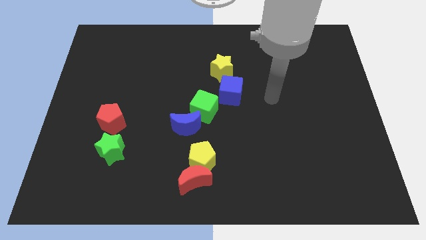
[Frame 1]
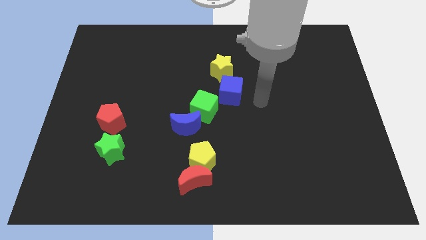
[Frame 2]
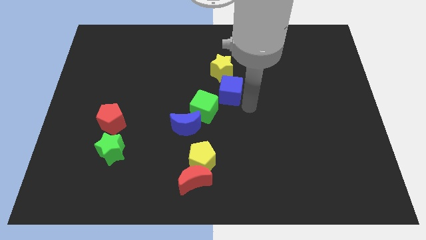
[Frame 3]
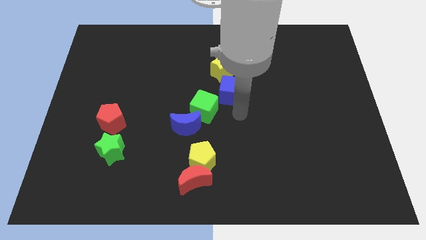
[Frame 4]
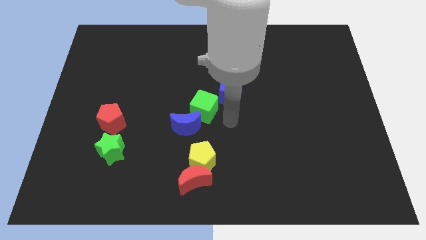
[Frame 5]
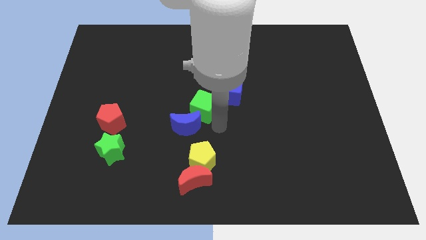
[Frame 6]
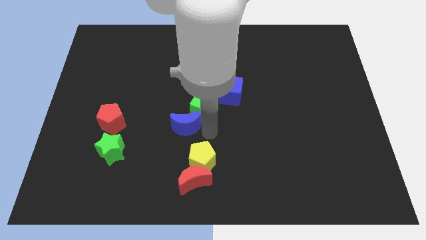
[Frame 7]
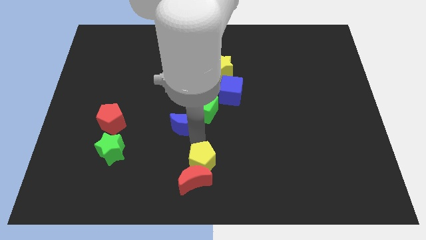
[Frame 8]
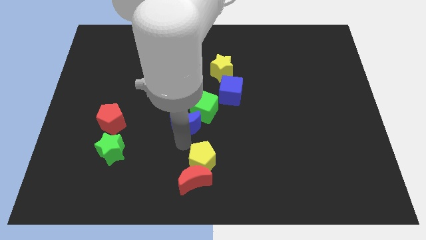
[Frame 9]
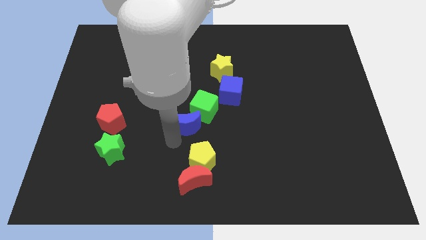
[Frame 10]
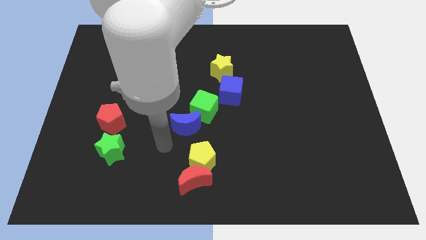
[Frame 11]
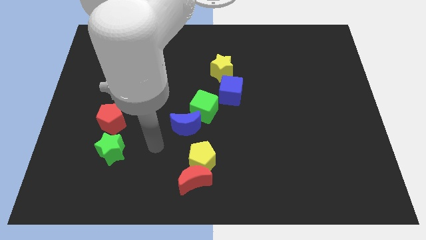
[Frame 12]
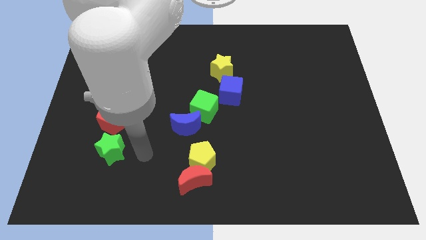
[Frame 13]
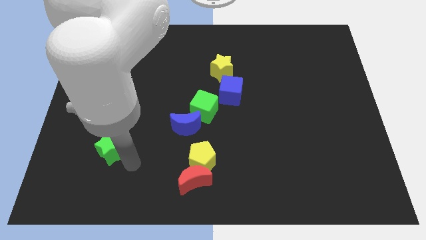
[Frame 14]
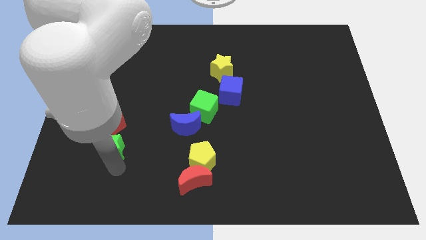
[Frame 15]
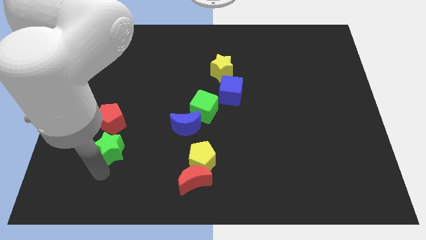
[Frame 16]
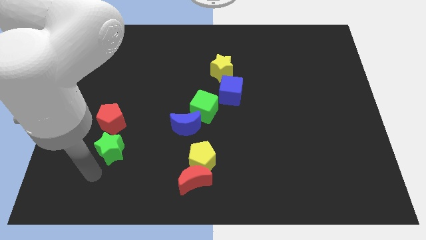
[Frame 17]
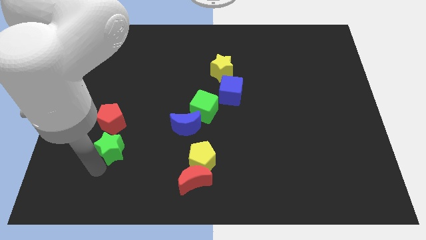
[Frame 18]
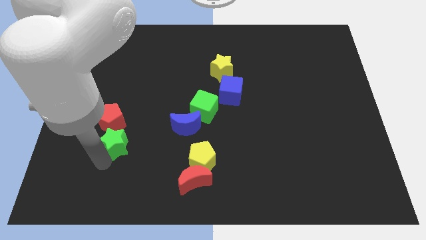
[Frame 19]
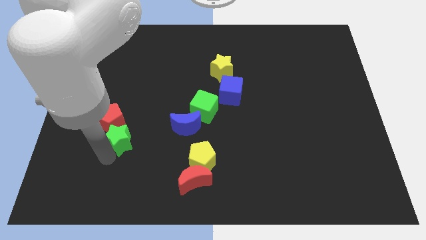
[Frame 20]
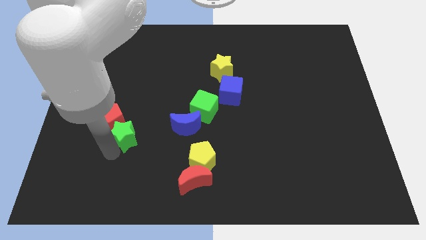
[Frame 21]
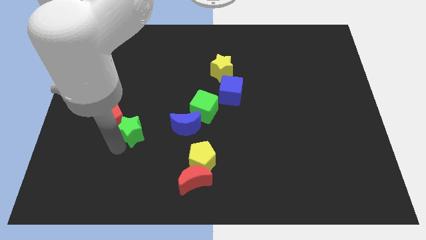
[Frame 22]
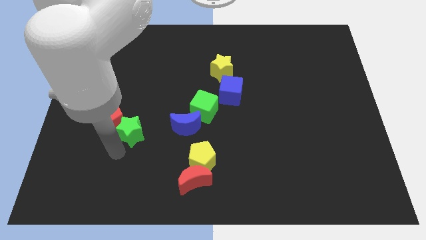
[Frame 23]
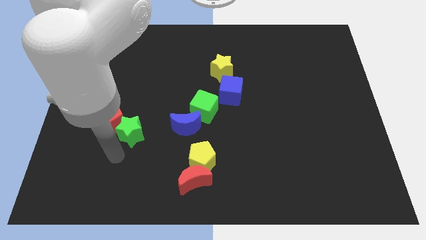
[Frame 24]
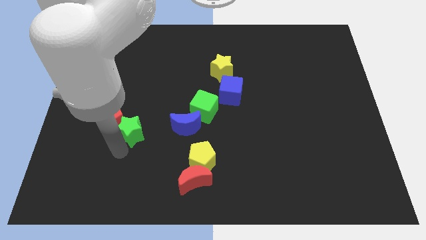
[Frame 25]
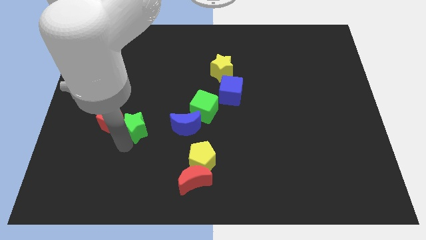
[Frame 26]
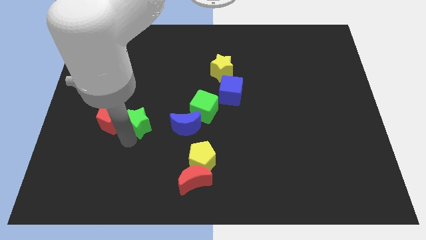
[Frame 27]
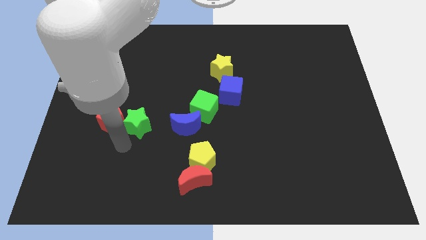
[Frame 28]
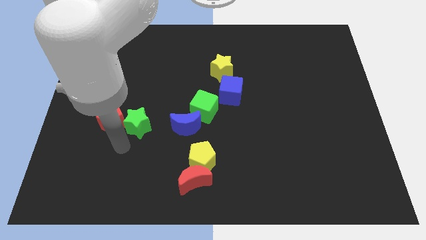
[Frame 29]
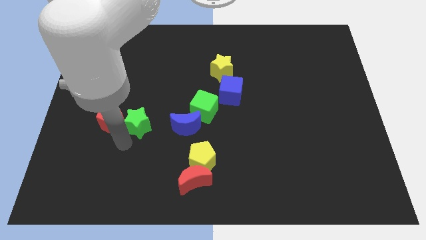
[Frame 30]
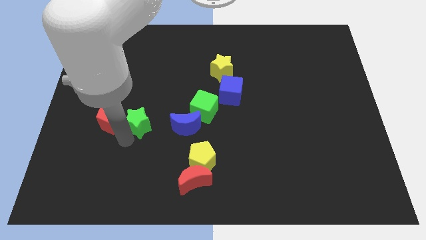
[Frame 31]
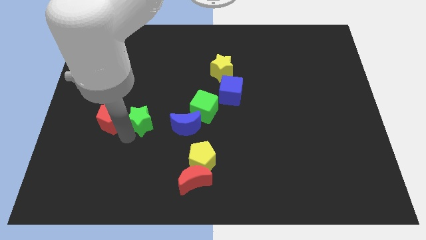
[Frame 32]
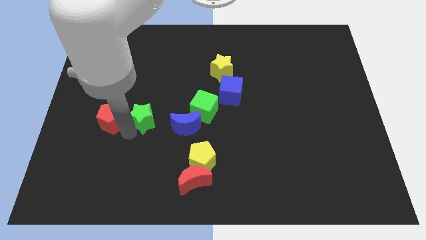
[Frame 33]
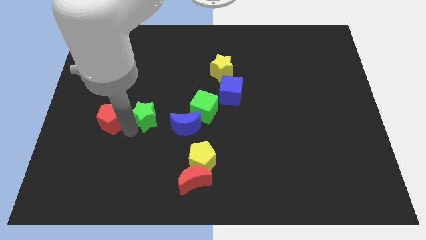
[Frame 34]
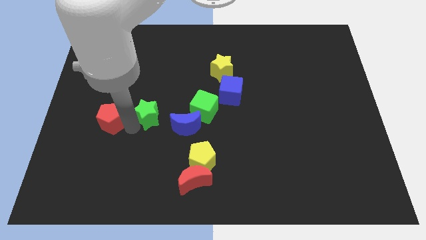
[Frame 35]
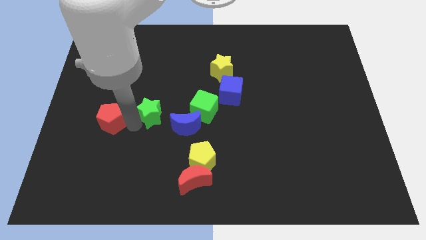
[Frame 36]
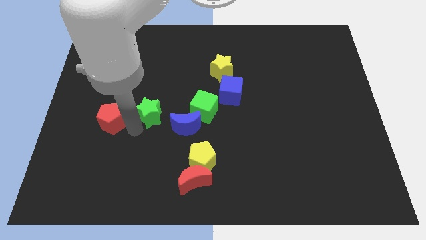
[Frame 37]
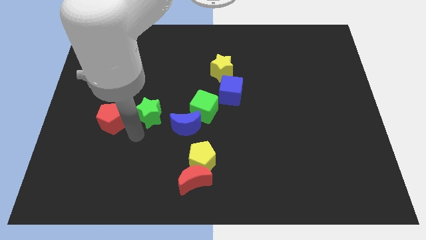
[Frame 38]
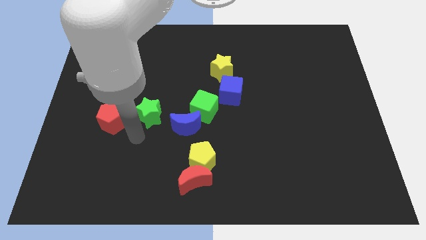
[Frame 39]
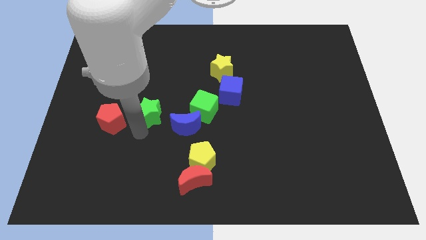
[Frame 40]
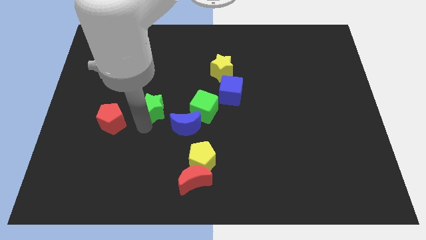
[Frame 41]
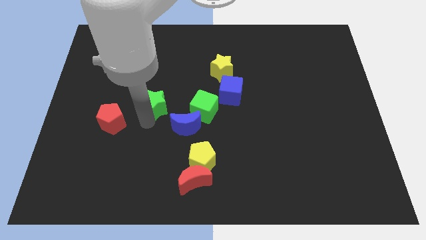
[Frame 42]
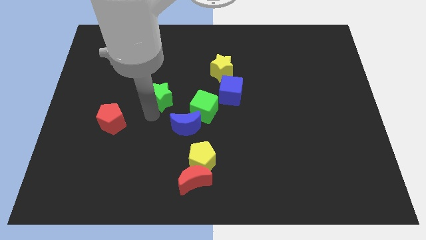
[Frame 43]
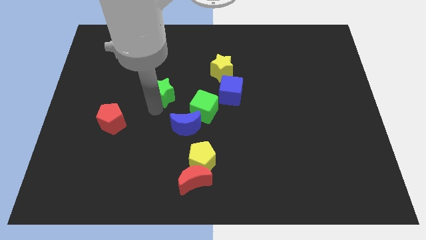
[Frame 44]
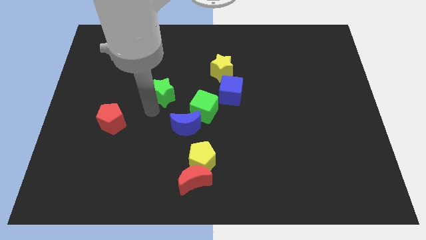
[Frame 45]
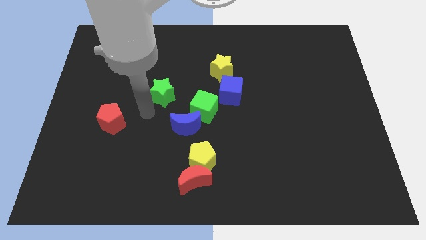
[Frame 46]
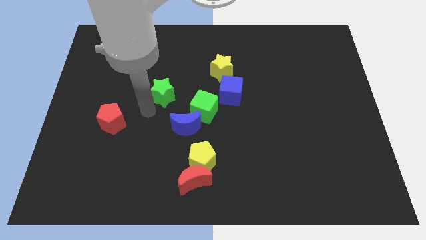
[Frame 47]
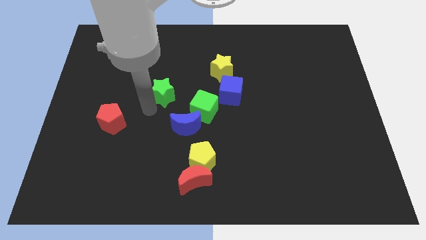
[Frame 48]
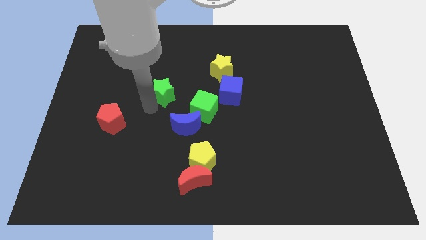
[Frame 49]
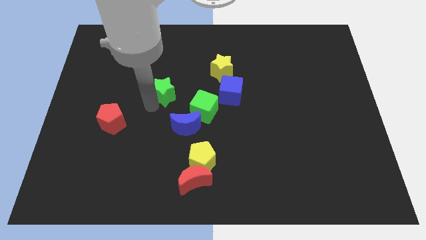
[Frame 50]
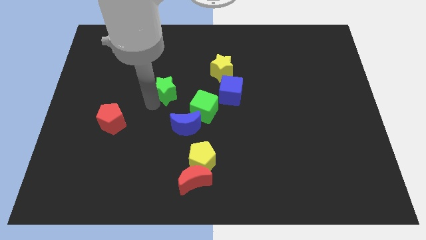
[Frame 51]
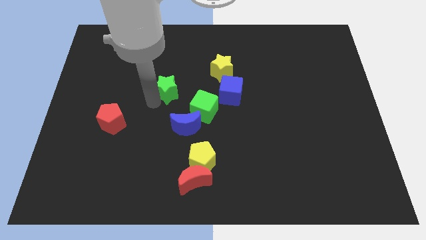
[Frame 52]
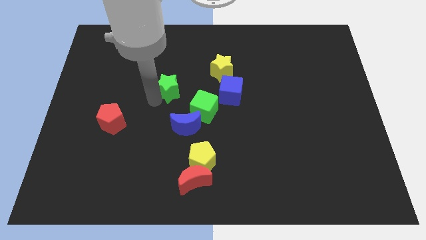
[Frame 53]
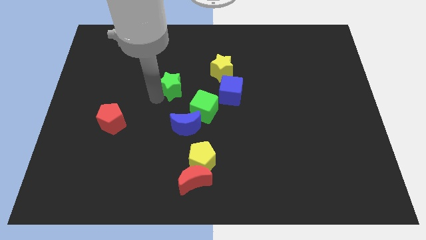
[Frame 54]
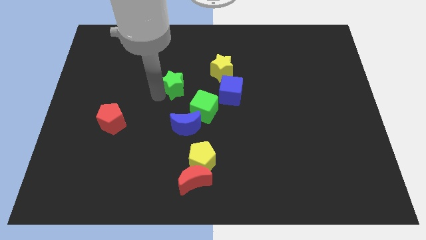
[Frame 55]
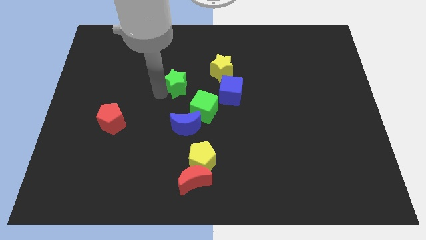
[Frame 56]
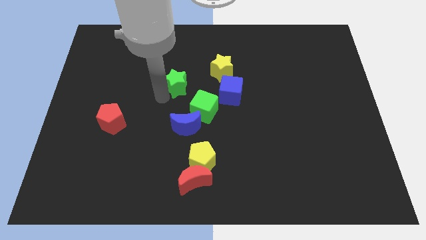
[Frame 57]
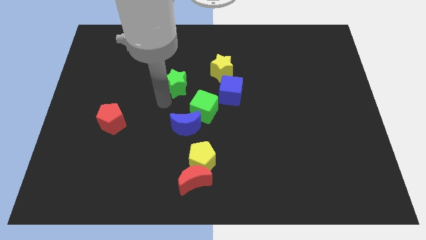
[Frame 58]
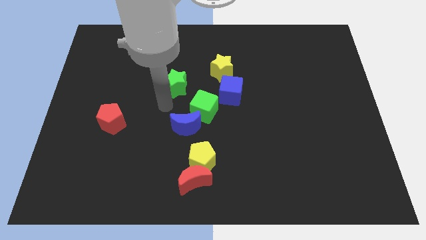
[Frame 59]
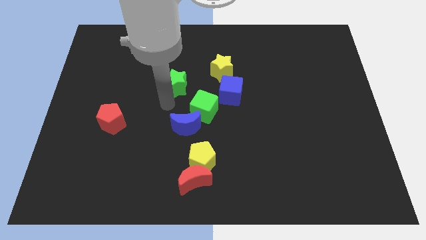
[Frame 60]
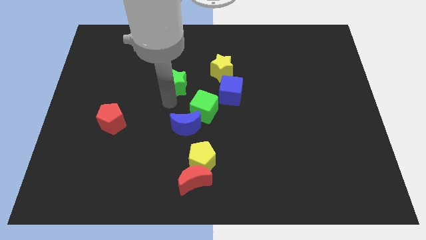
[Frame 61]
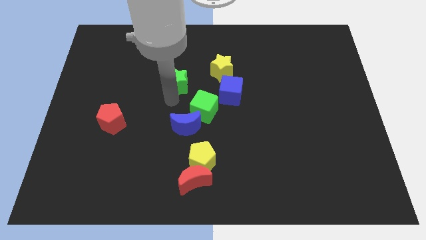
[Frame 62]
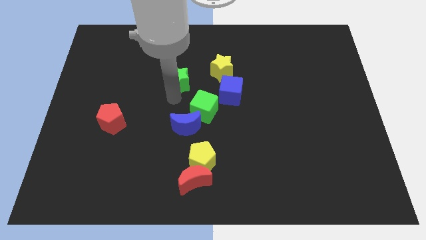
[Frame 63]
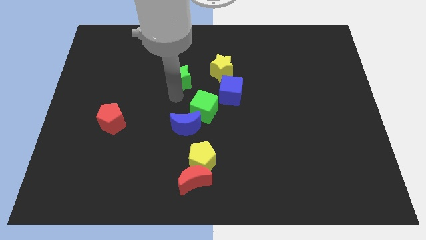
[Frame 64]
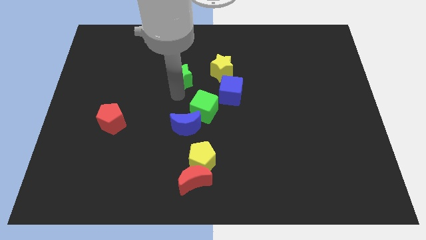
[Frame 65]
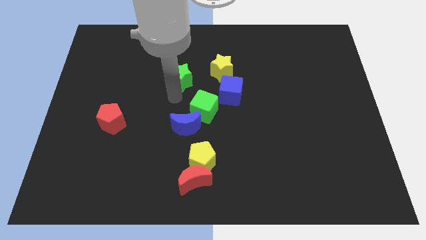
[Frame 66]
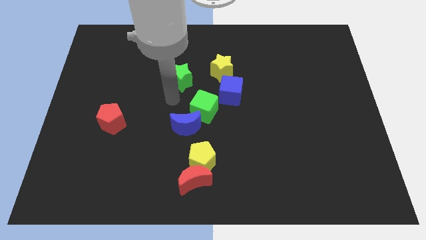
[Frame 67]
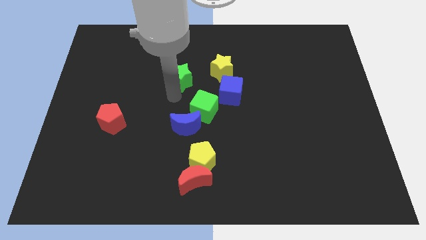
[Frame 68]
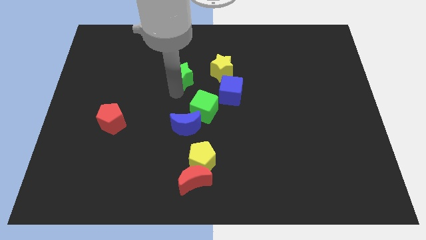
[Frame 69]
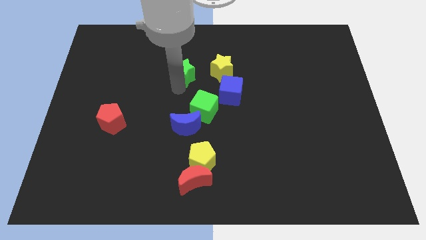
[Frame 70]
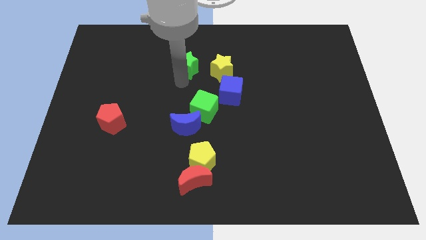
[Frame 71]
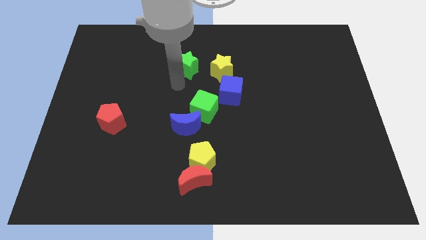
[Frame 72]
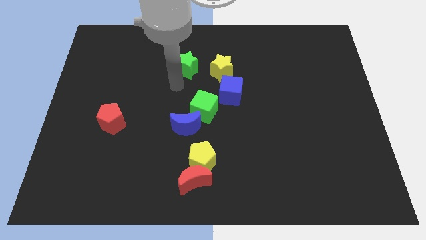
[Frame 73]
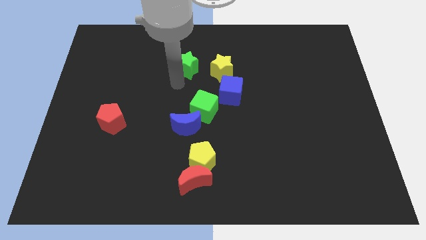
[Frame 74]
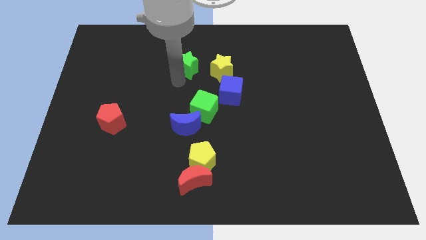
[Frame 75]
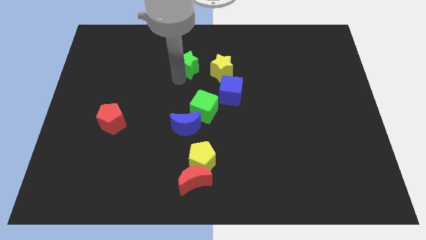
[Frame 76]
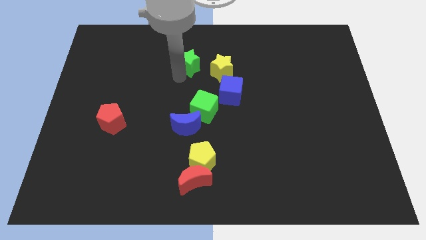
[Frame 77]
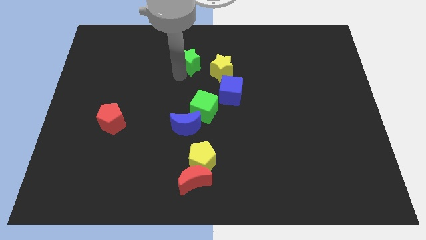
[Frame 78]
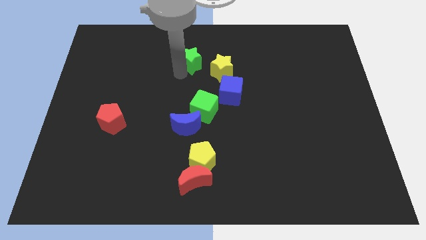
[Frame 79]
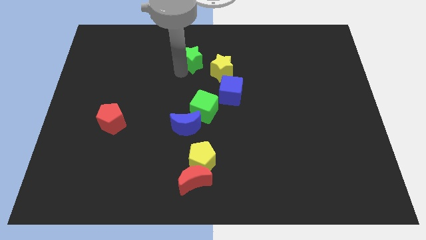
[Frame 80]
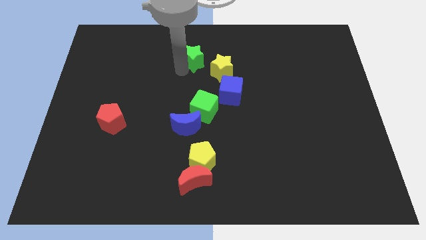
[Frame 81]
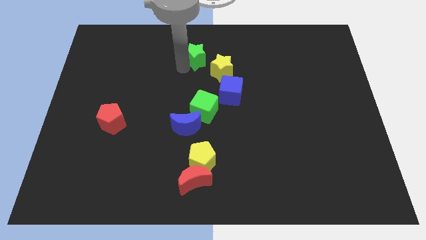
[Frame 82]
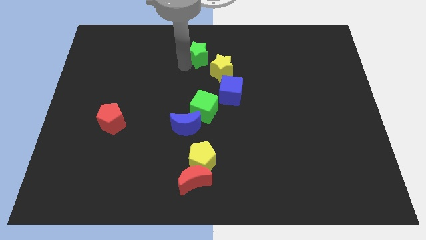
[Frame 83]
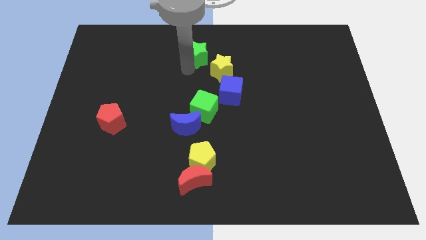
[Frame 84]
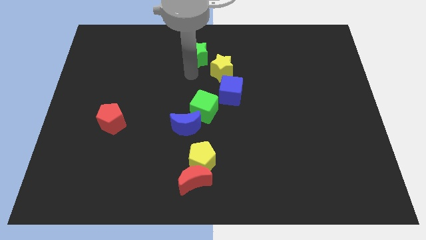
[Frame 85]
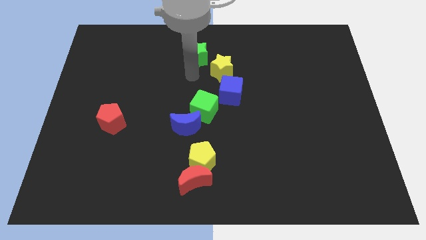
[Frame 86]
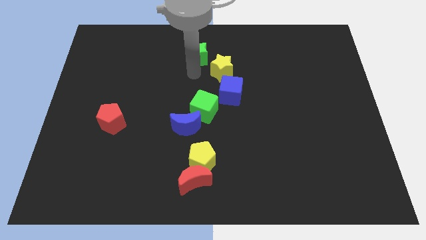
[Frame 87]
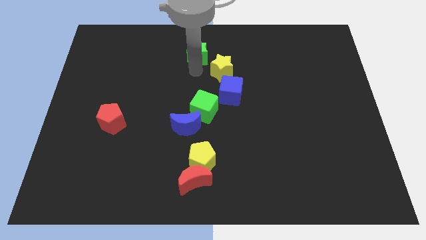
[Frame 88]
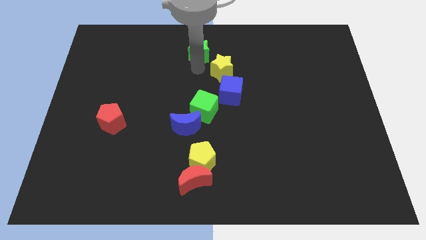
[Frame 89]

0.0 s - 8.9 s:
put the green star to the top side
